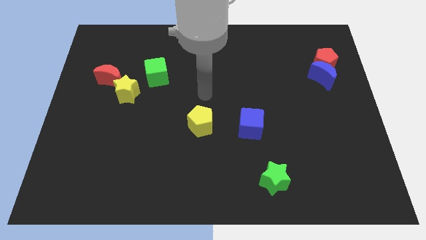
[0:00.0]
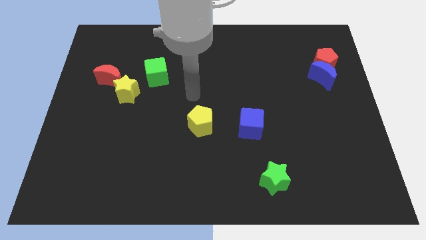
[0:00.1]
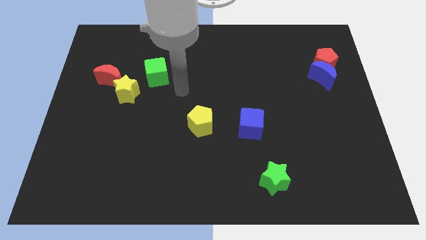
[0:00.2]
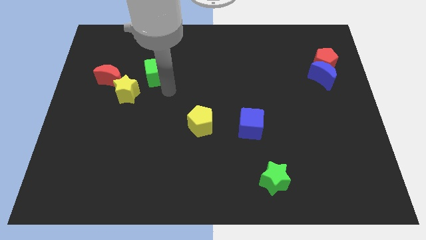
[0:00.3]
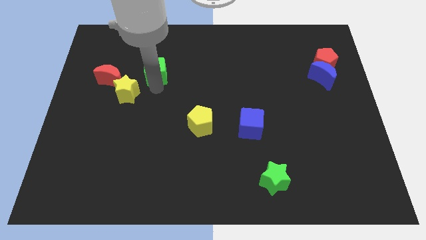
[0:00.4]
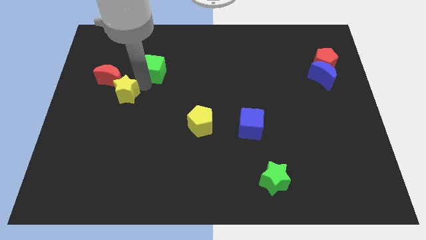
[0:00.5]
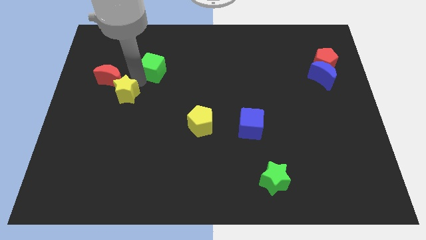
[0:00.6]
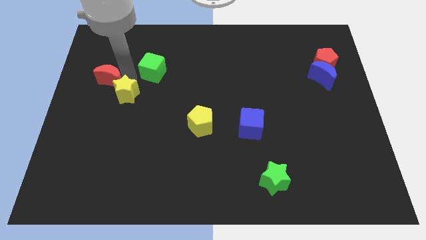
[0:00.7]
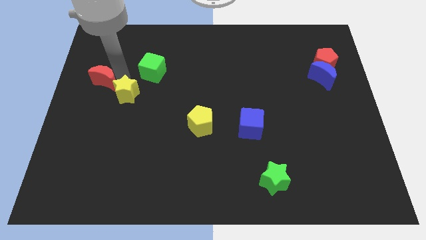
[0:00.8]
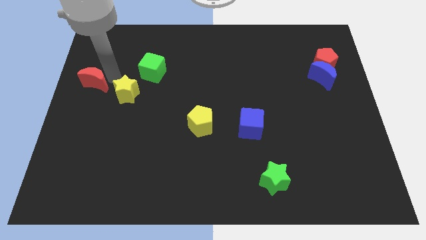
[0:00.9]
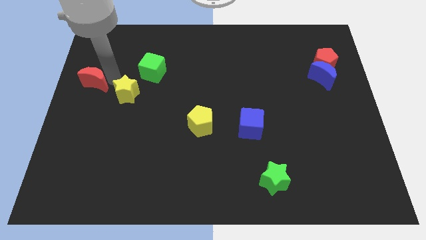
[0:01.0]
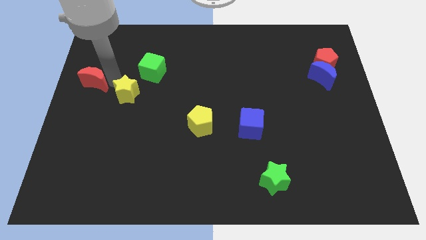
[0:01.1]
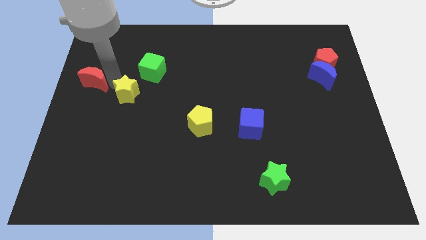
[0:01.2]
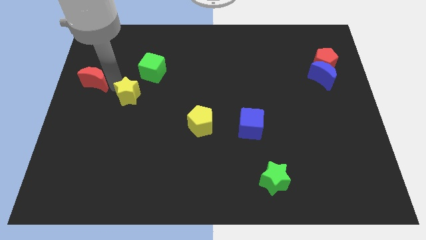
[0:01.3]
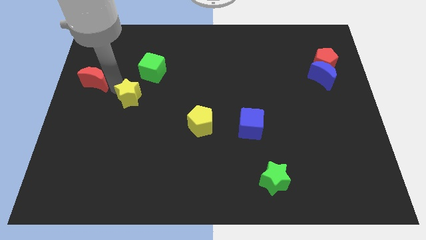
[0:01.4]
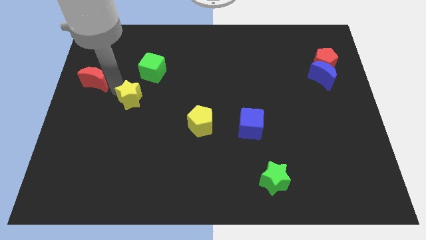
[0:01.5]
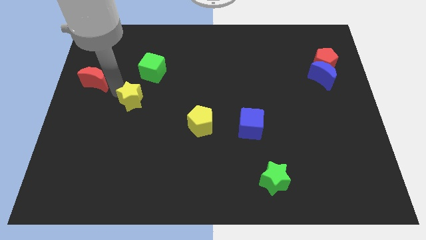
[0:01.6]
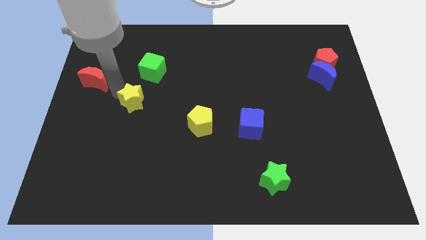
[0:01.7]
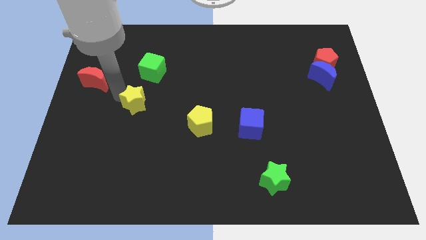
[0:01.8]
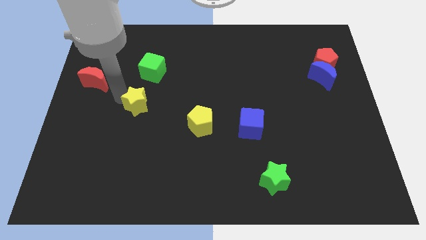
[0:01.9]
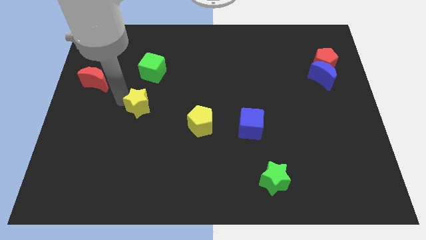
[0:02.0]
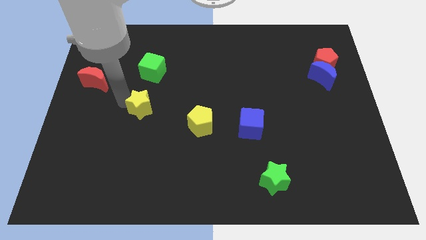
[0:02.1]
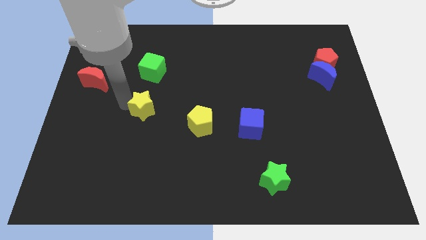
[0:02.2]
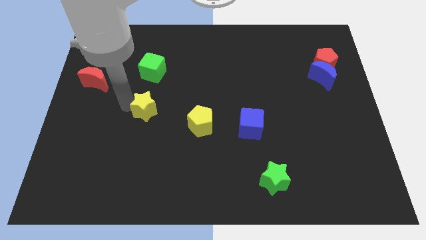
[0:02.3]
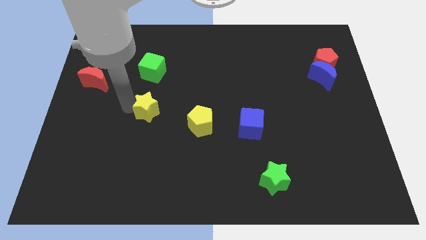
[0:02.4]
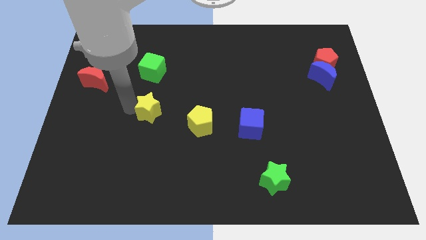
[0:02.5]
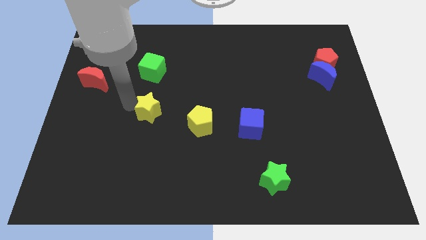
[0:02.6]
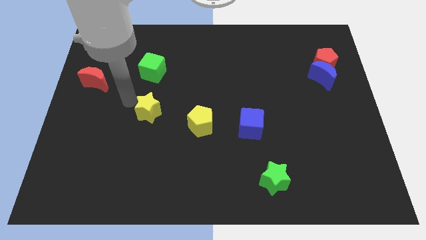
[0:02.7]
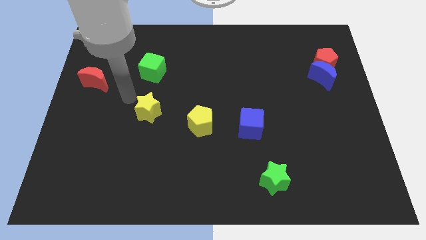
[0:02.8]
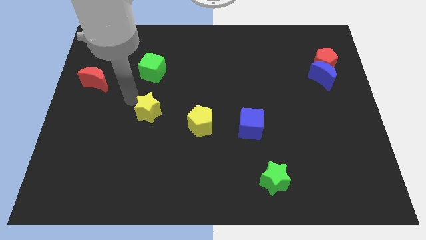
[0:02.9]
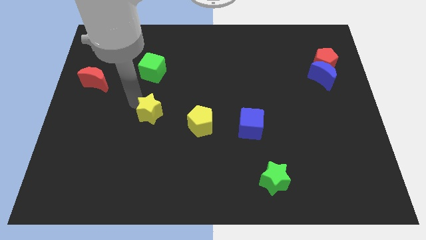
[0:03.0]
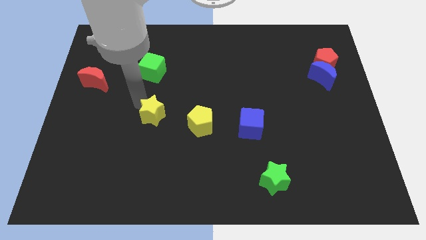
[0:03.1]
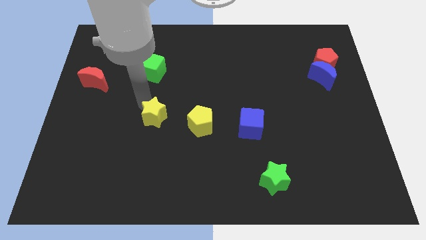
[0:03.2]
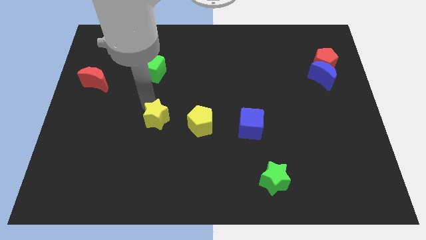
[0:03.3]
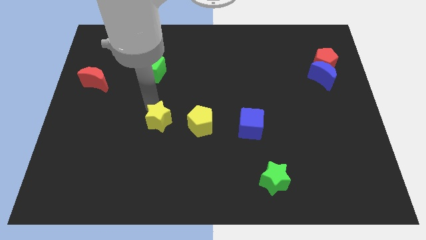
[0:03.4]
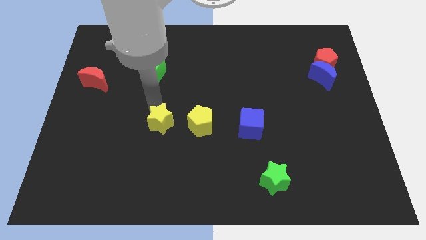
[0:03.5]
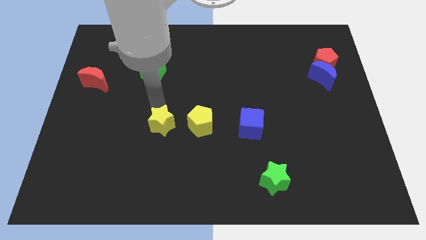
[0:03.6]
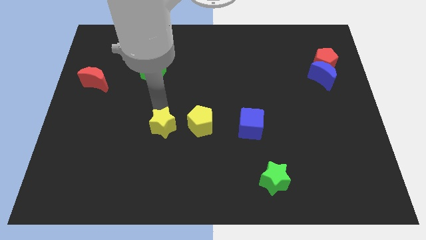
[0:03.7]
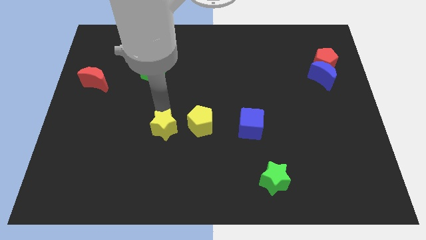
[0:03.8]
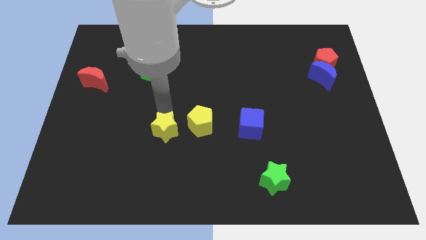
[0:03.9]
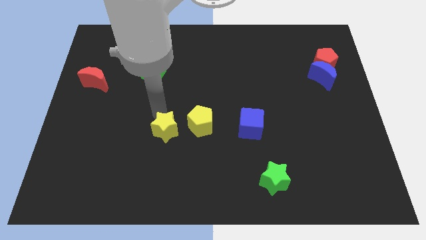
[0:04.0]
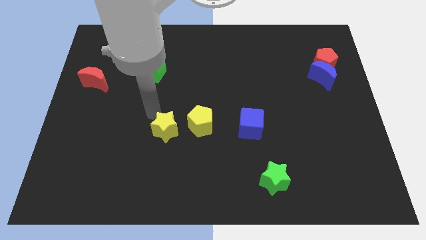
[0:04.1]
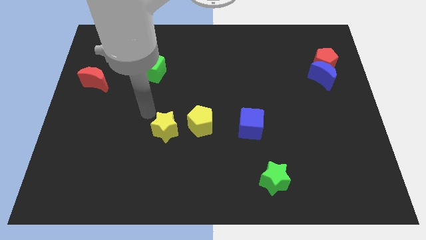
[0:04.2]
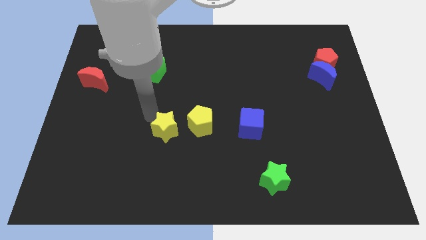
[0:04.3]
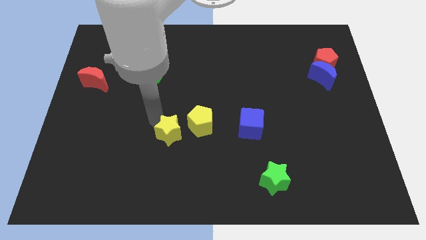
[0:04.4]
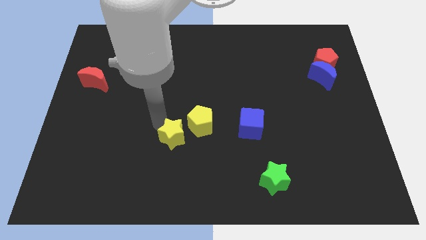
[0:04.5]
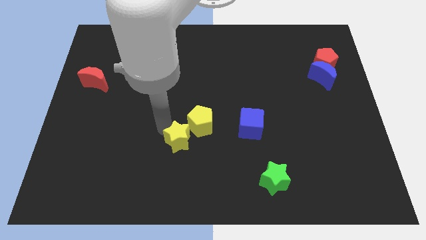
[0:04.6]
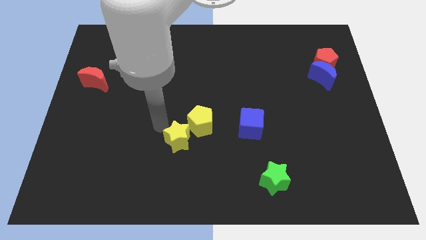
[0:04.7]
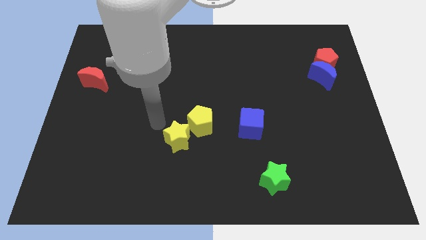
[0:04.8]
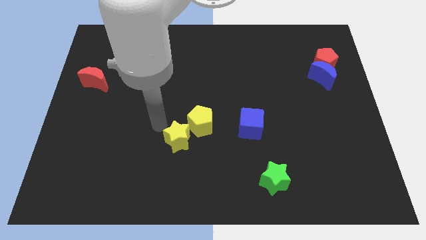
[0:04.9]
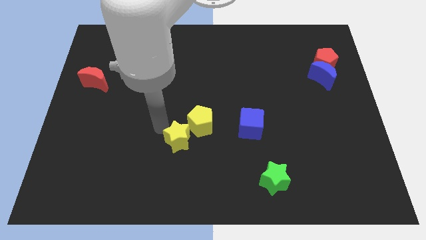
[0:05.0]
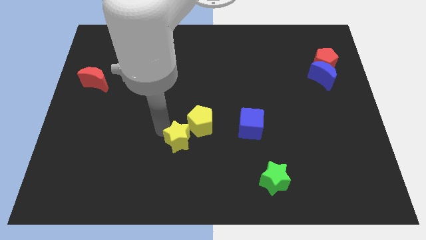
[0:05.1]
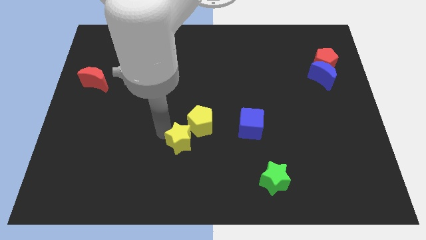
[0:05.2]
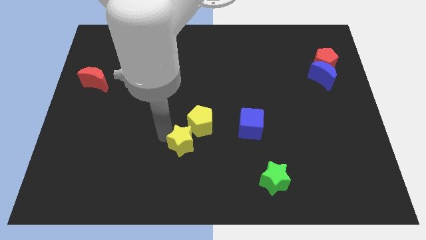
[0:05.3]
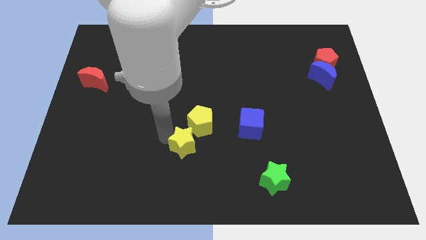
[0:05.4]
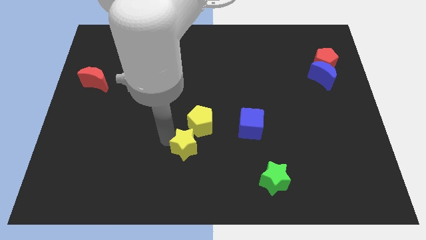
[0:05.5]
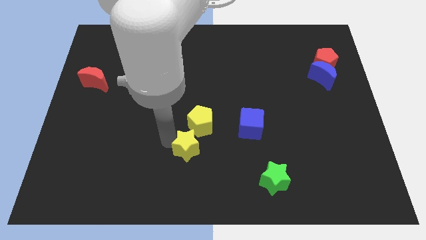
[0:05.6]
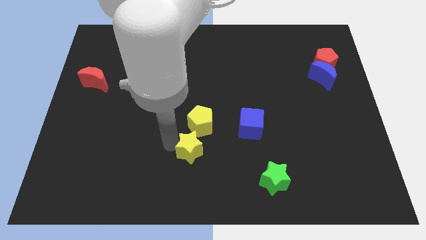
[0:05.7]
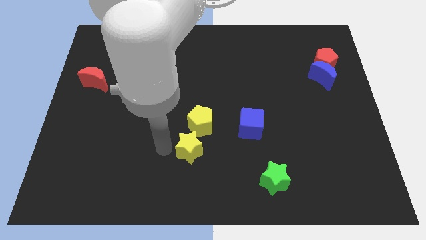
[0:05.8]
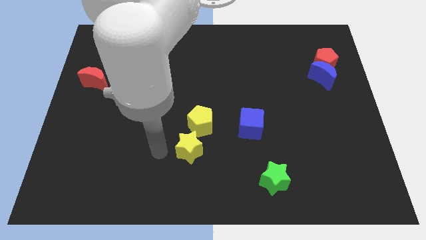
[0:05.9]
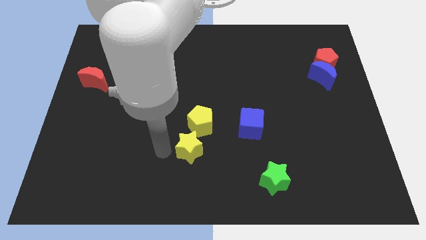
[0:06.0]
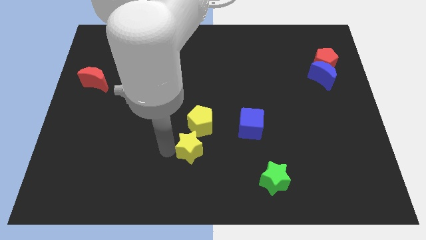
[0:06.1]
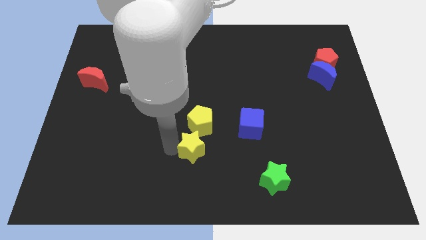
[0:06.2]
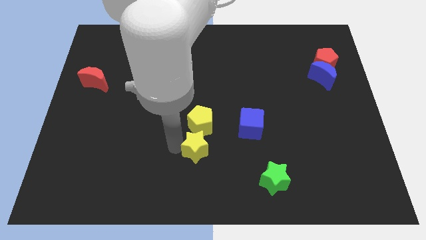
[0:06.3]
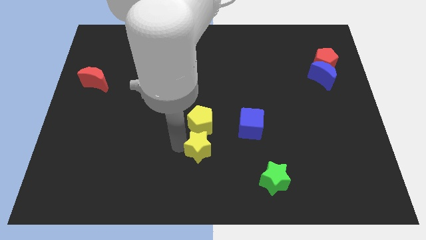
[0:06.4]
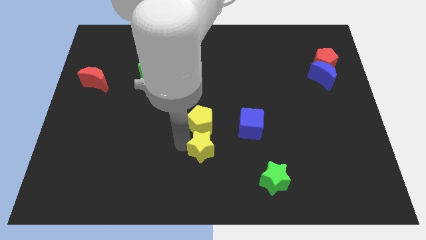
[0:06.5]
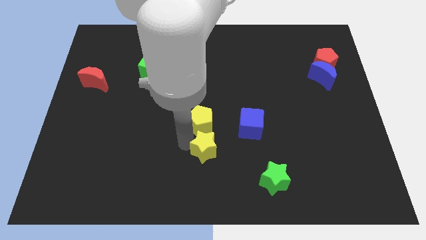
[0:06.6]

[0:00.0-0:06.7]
slide the yellow star to the bottom left side of the blue cube

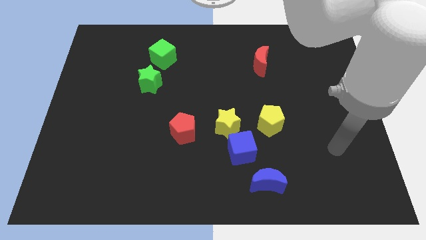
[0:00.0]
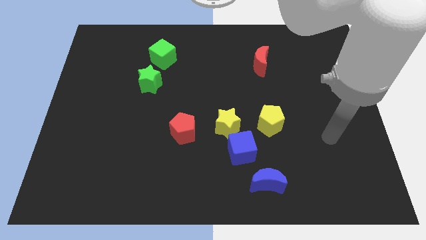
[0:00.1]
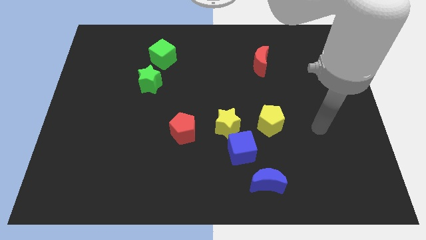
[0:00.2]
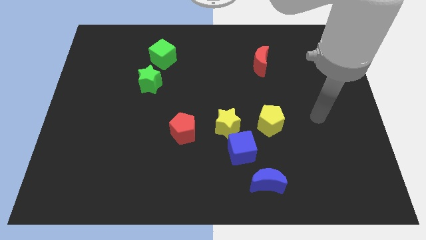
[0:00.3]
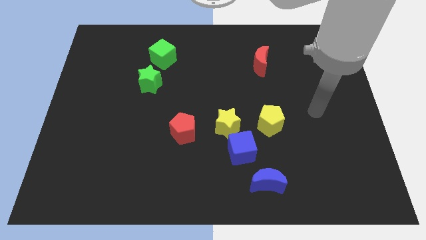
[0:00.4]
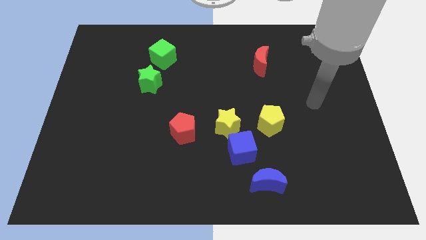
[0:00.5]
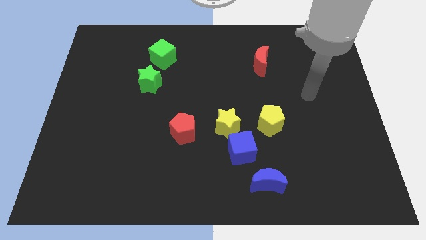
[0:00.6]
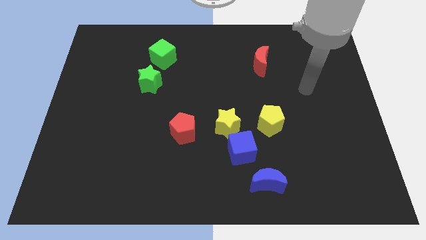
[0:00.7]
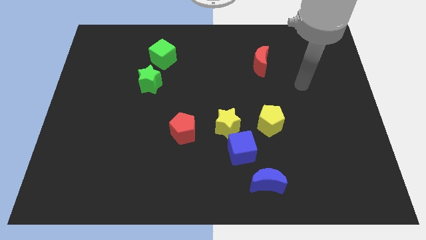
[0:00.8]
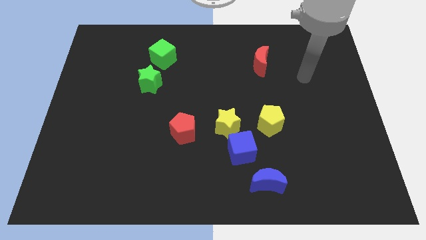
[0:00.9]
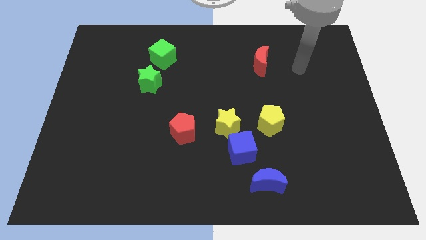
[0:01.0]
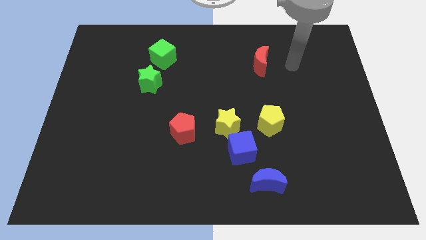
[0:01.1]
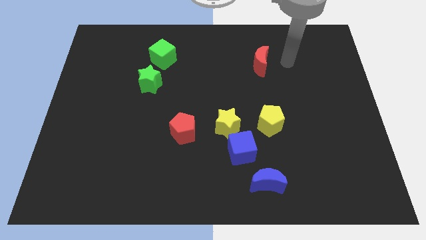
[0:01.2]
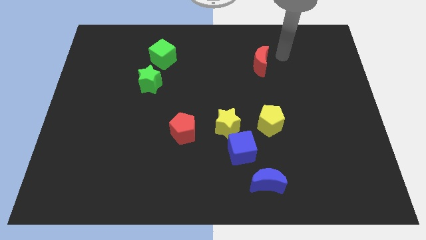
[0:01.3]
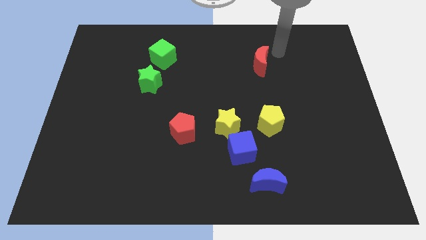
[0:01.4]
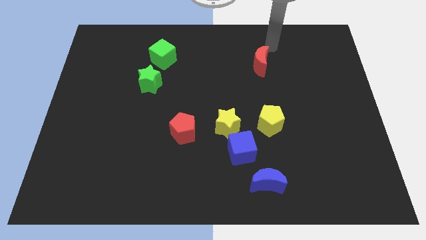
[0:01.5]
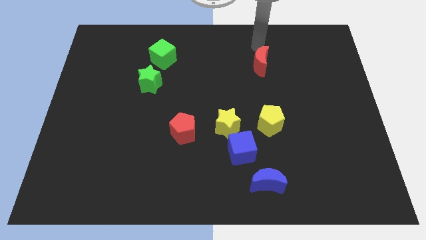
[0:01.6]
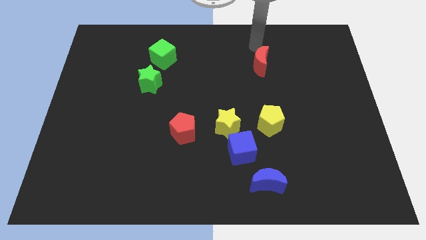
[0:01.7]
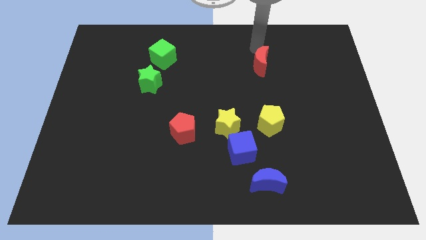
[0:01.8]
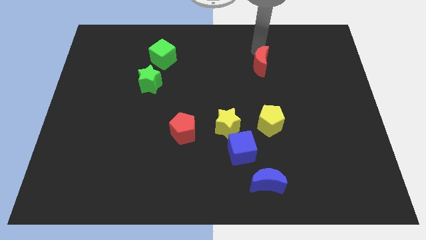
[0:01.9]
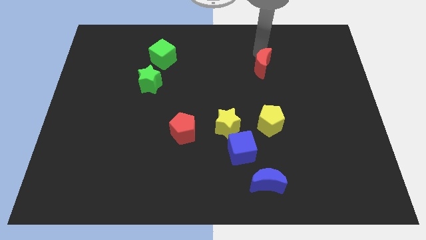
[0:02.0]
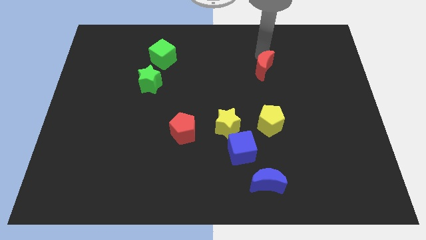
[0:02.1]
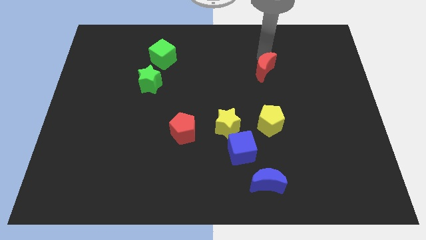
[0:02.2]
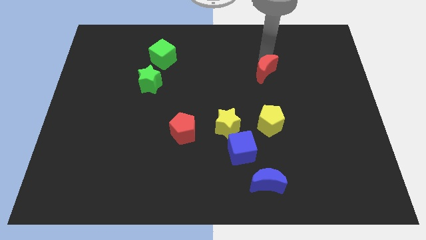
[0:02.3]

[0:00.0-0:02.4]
put the red moon to the top side of the yellow pentagon
